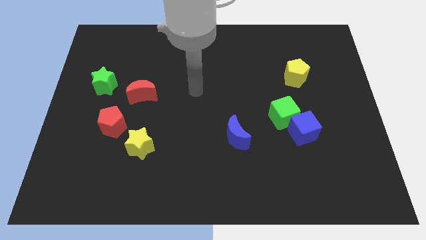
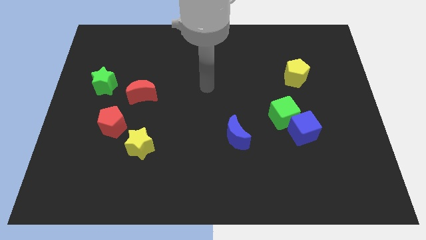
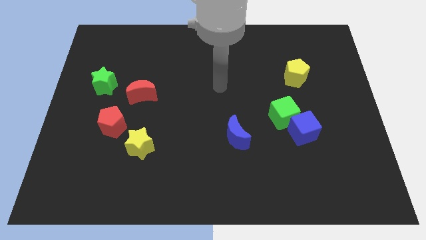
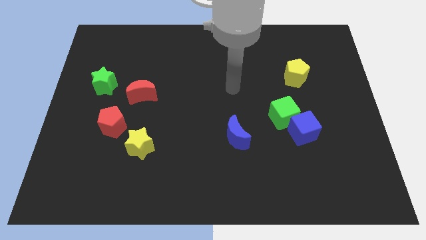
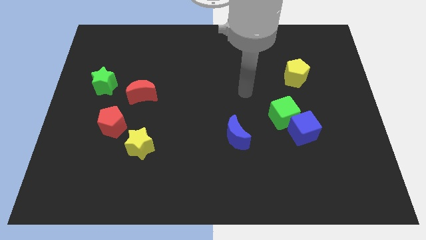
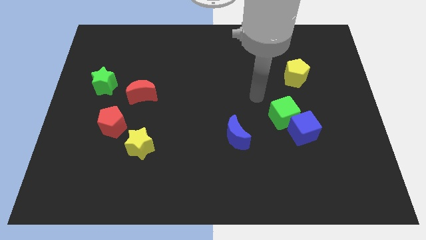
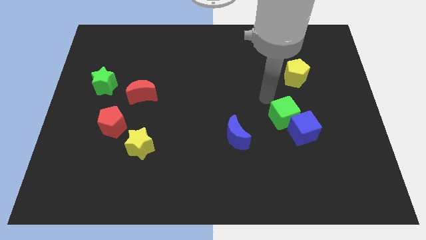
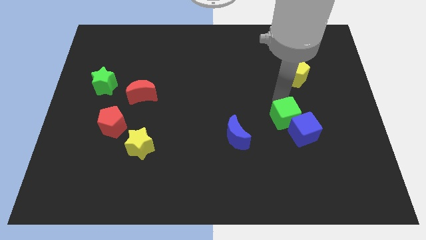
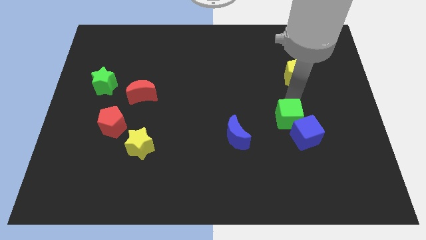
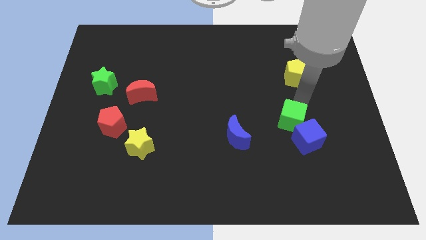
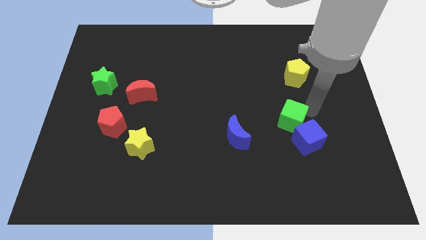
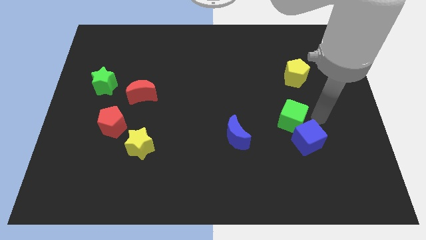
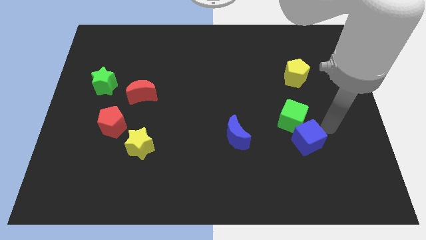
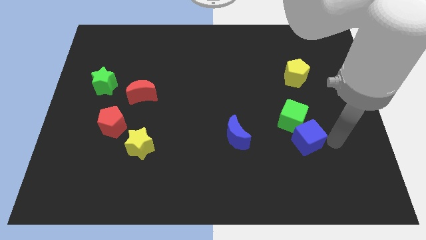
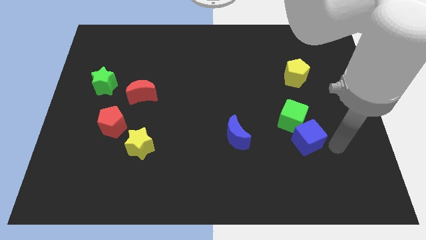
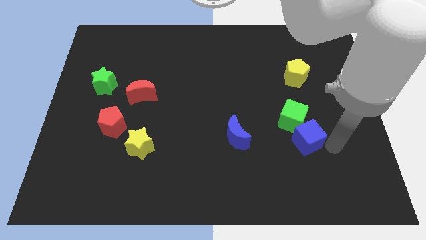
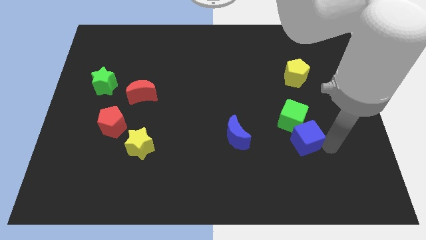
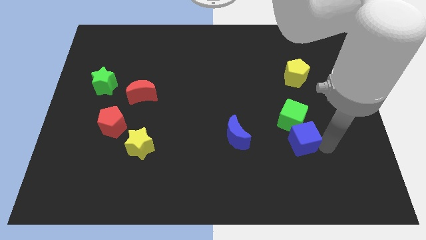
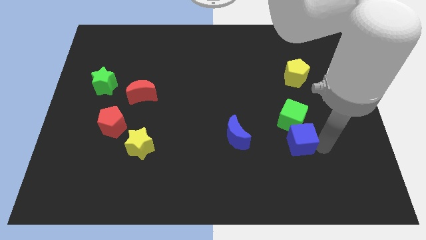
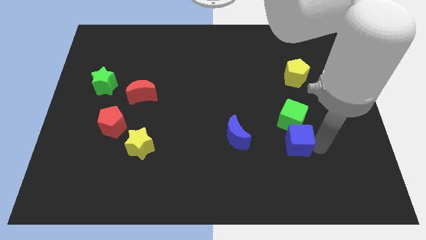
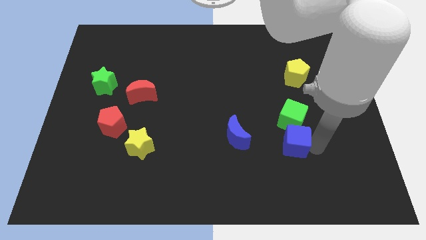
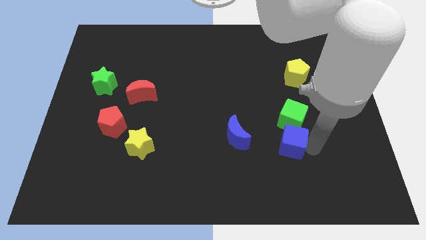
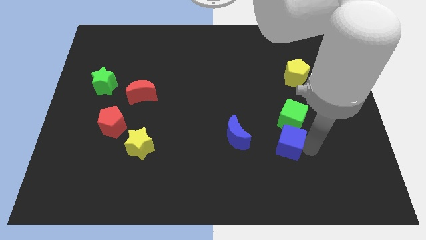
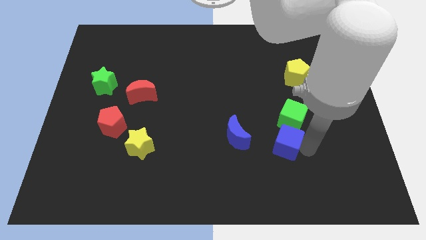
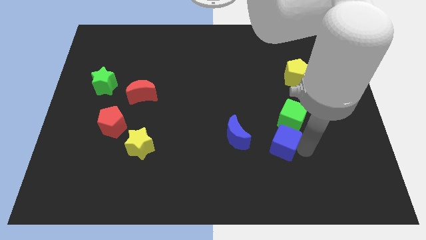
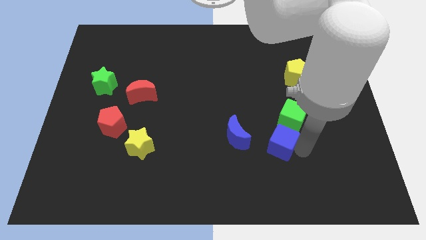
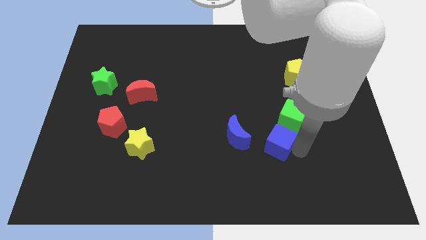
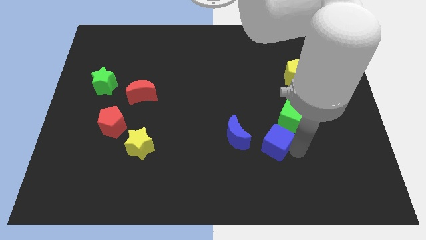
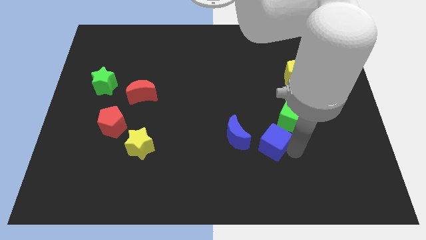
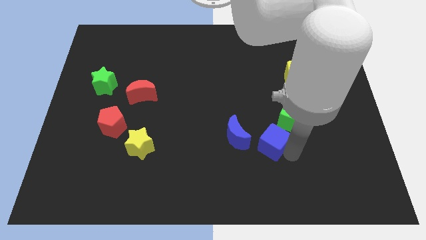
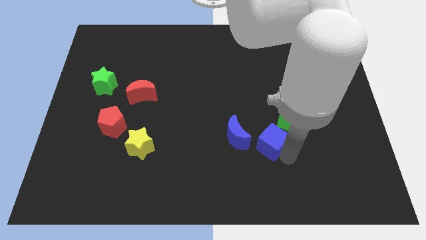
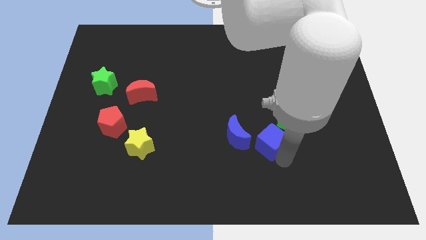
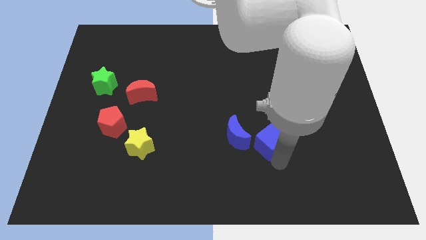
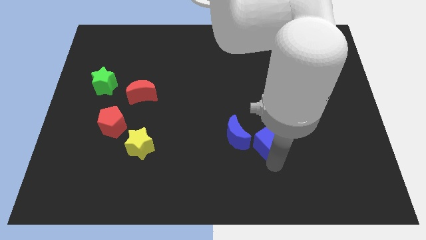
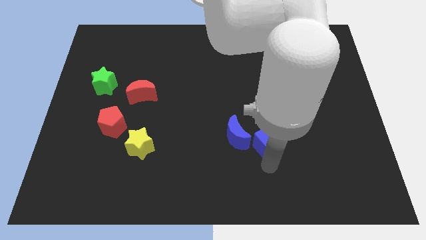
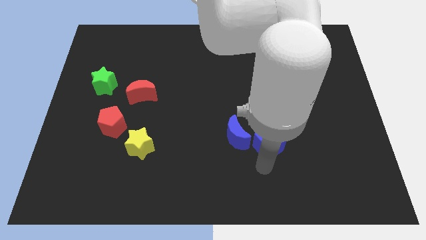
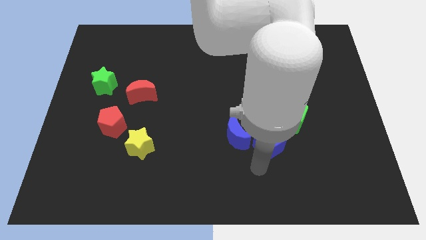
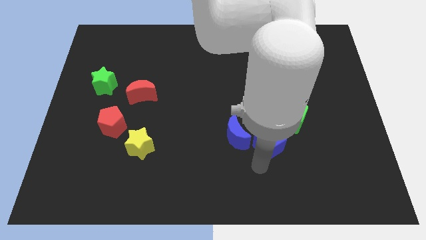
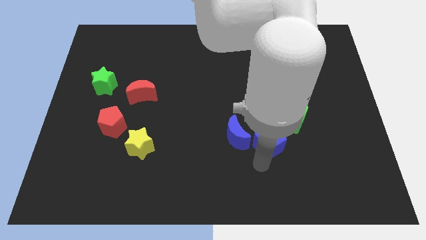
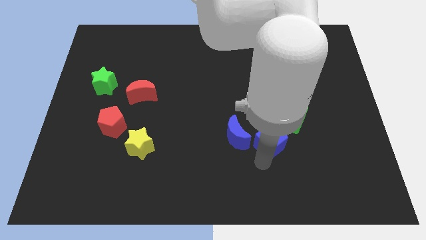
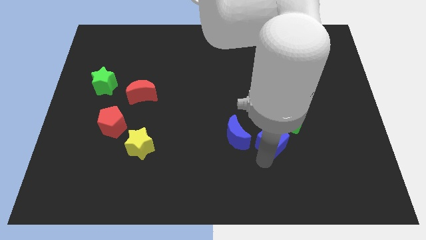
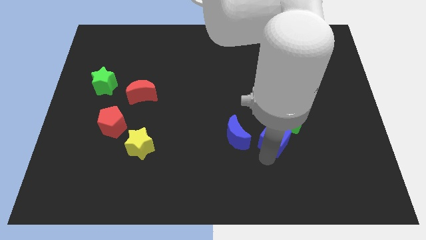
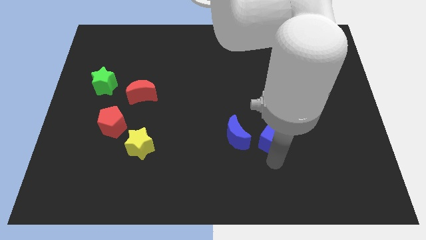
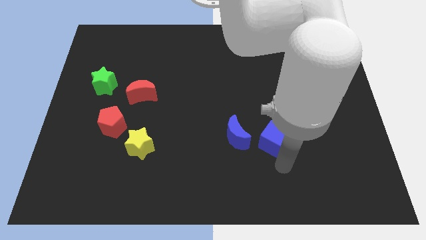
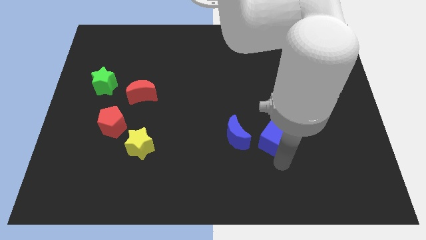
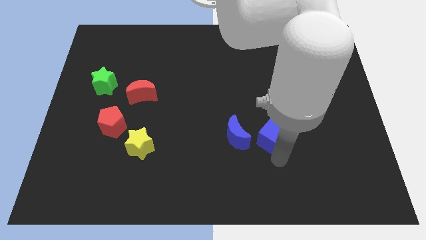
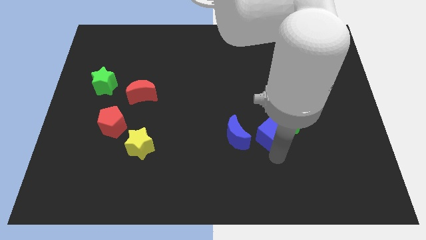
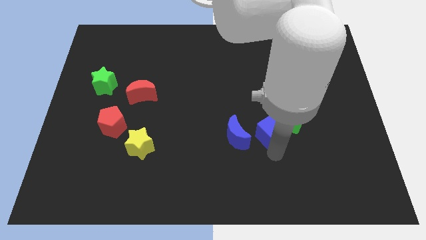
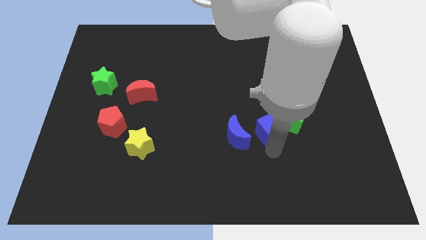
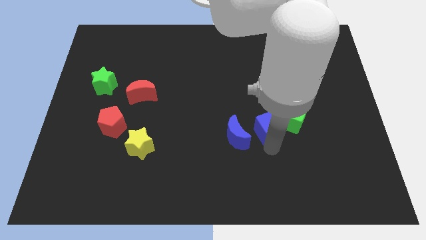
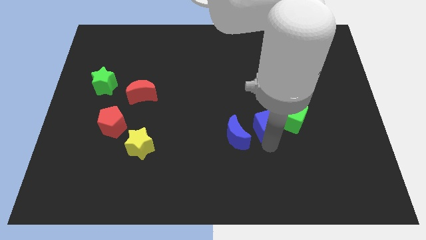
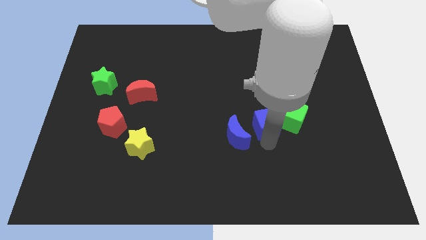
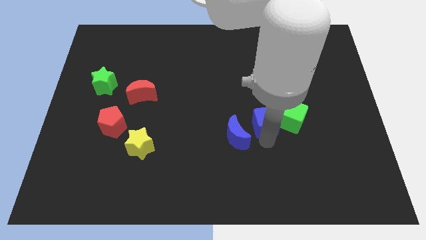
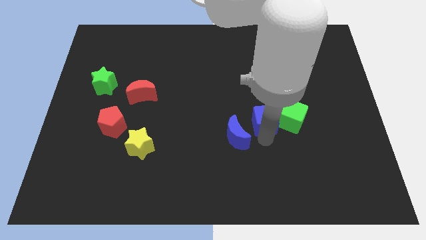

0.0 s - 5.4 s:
move the blue cube diagonally upwards and to the left a little

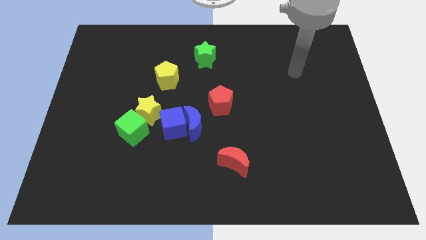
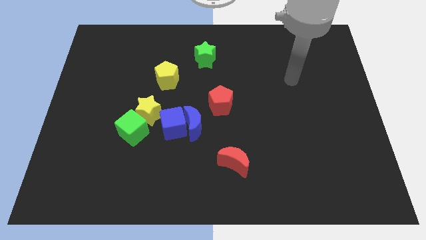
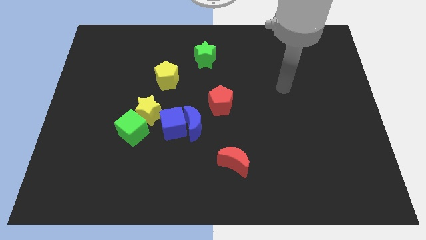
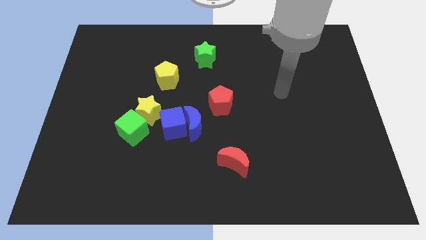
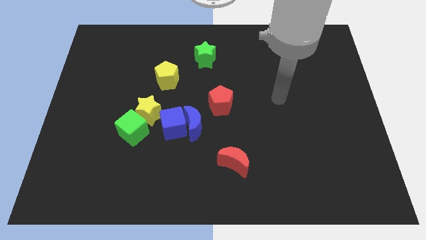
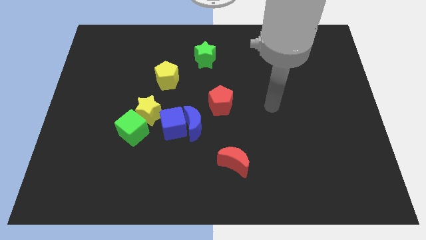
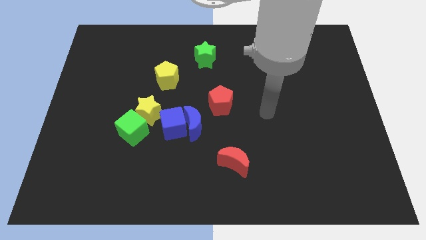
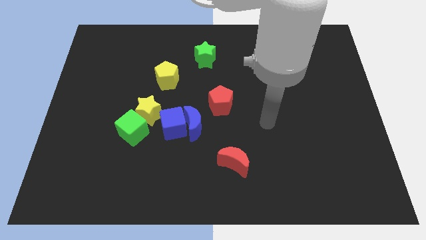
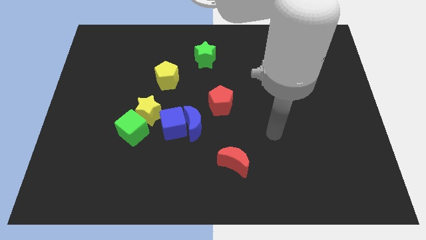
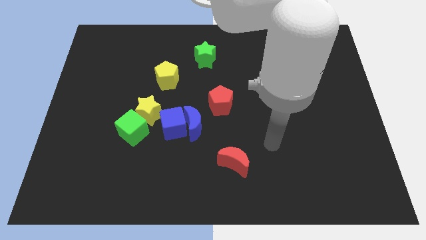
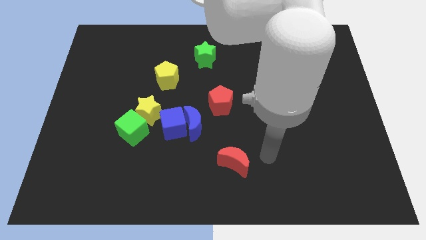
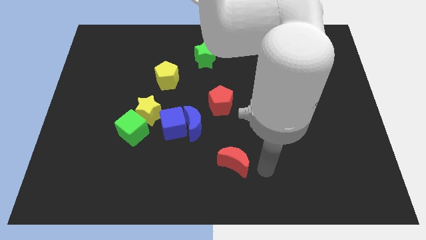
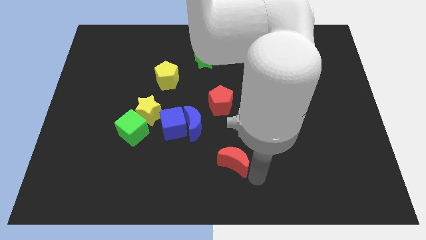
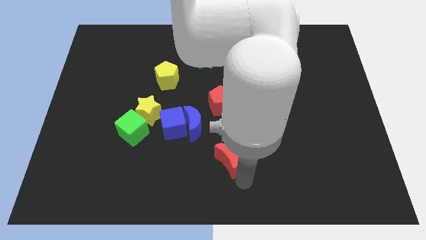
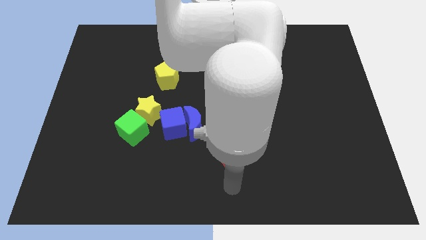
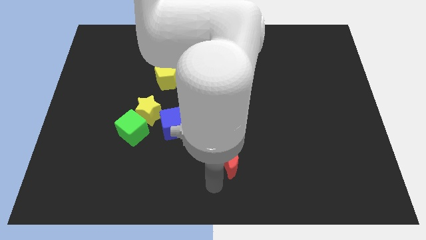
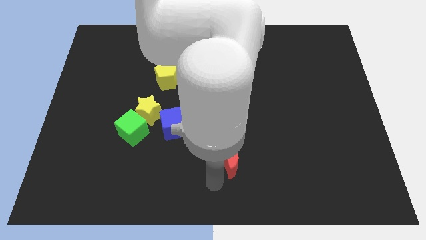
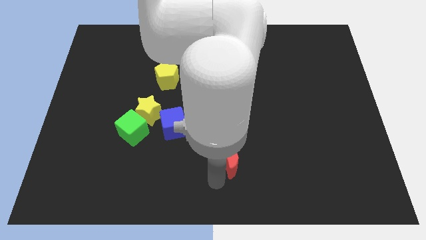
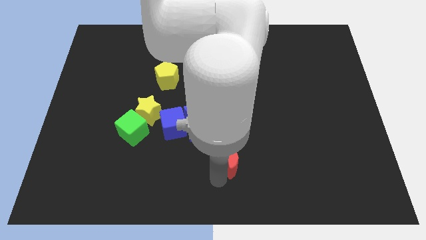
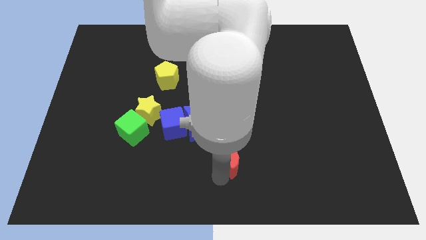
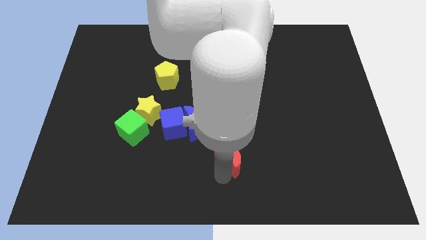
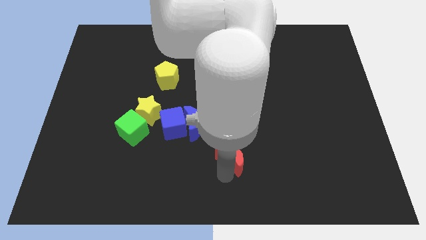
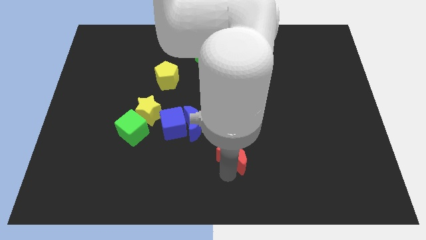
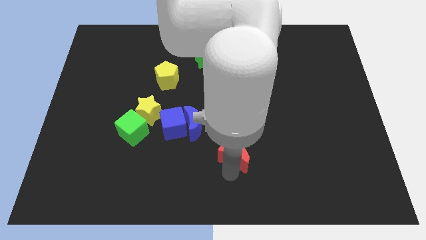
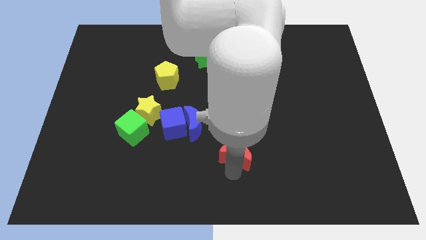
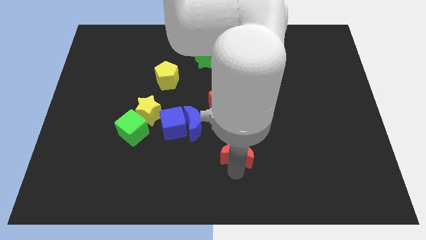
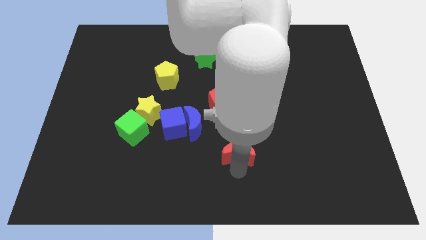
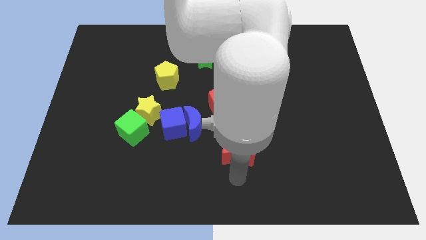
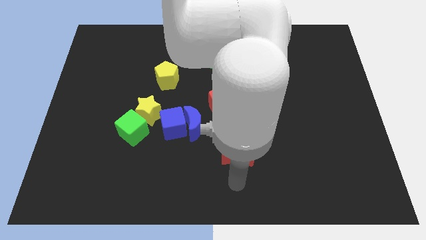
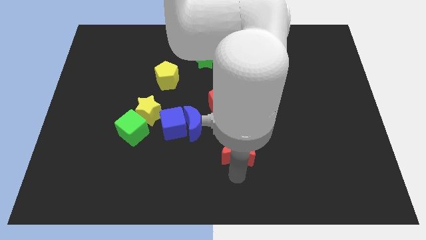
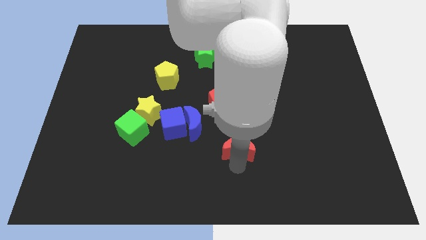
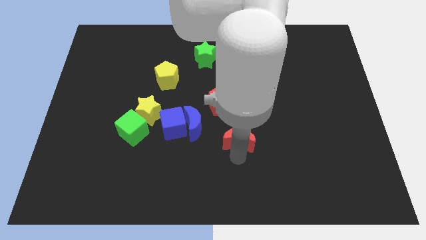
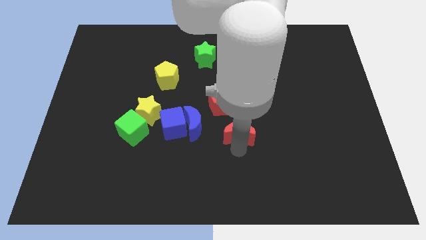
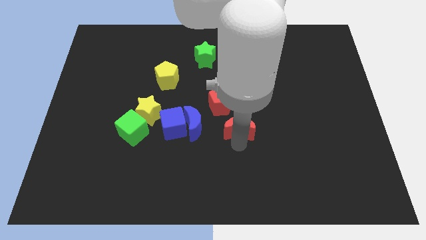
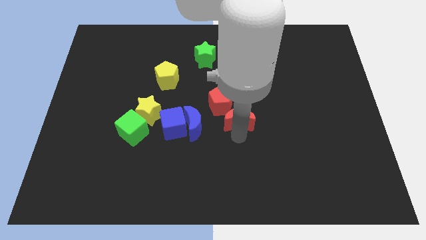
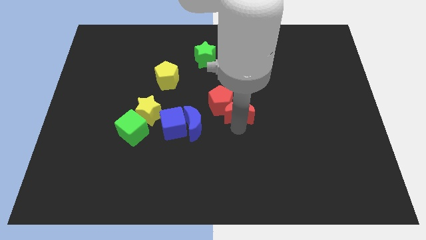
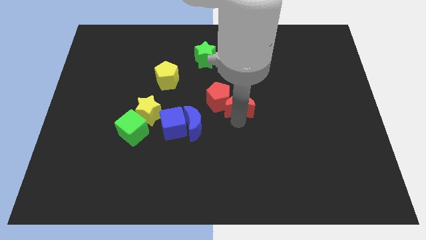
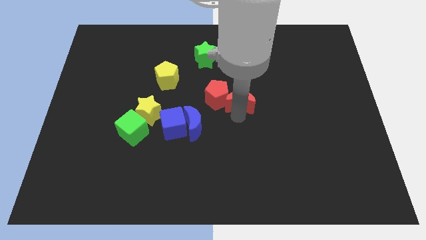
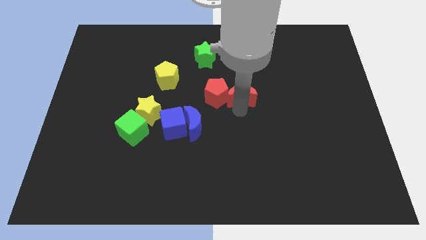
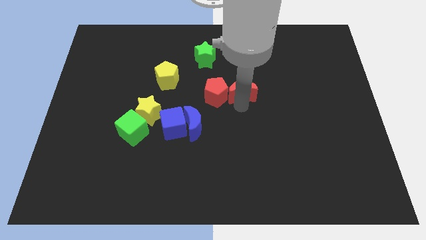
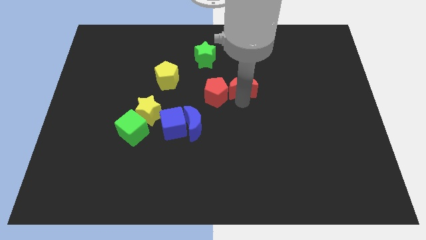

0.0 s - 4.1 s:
move the red moon up
